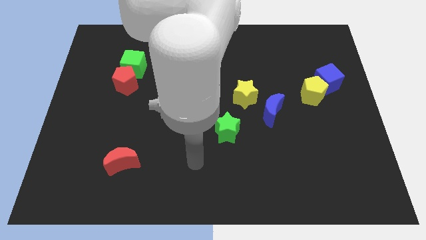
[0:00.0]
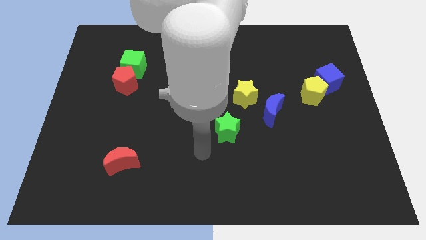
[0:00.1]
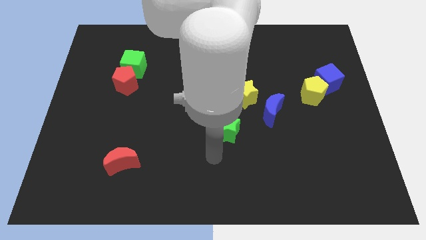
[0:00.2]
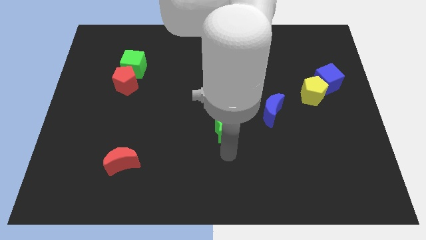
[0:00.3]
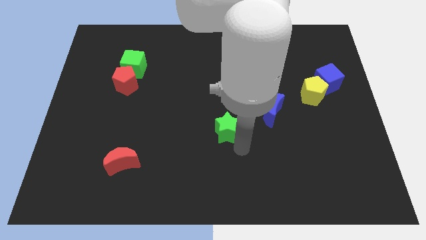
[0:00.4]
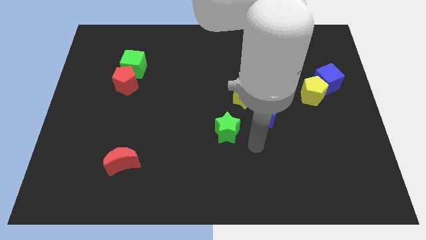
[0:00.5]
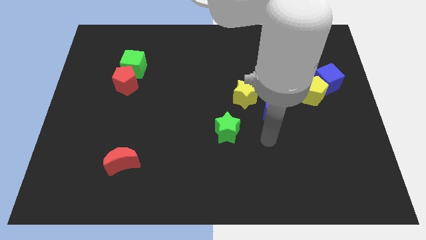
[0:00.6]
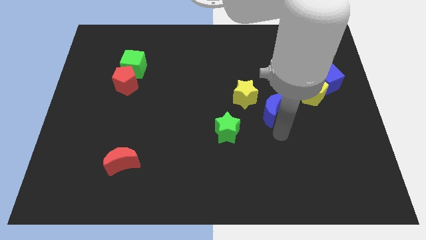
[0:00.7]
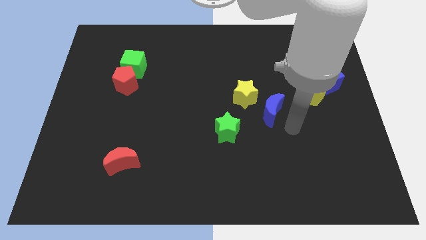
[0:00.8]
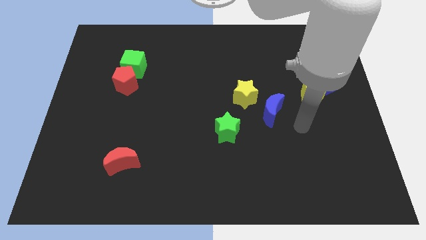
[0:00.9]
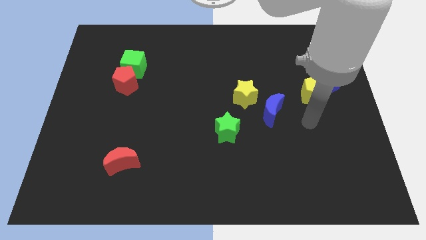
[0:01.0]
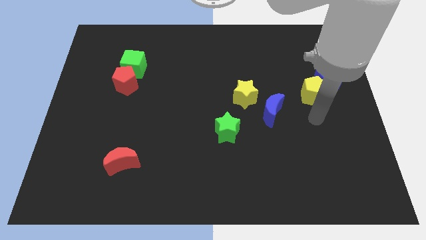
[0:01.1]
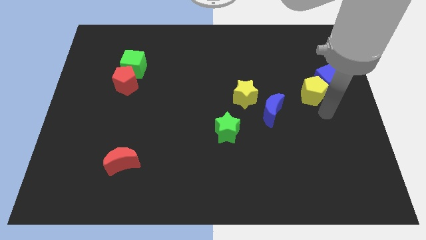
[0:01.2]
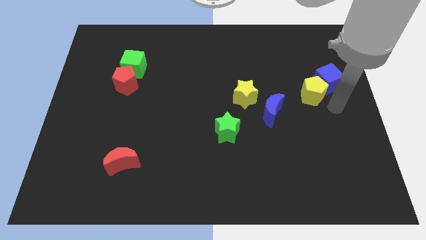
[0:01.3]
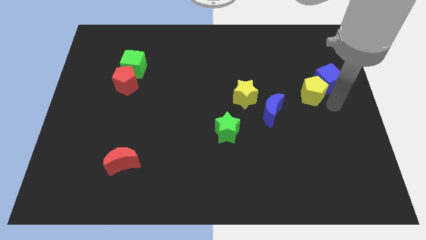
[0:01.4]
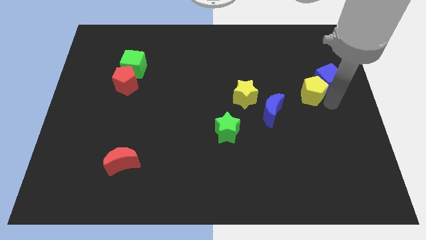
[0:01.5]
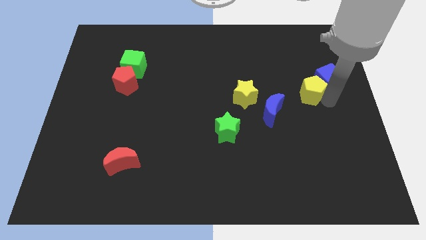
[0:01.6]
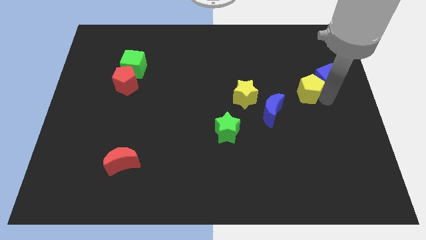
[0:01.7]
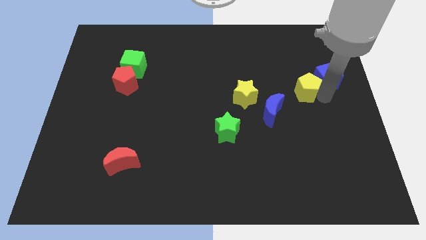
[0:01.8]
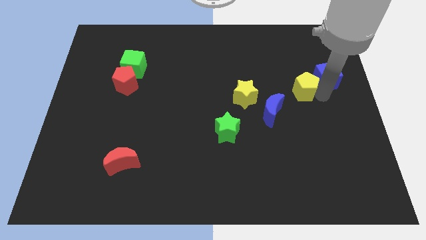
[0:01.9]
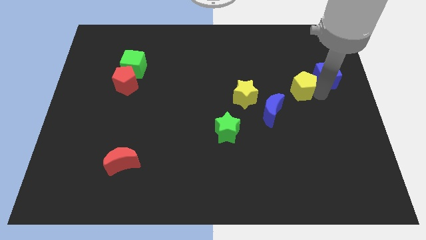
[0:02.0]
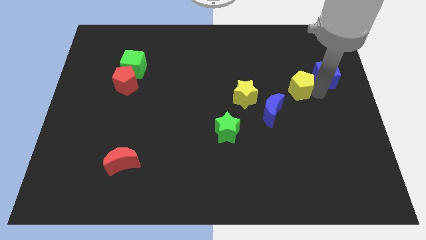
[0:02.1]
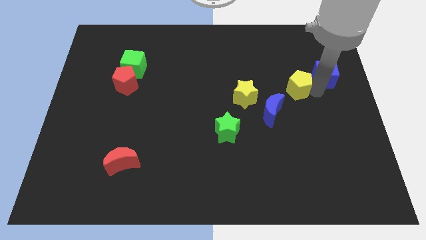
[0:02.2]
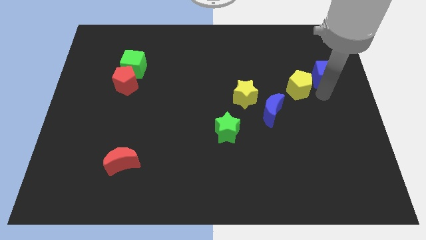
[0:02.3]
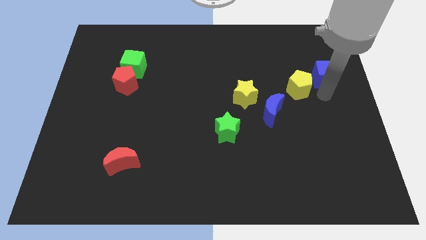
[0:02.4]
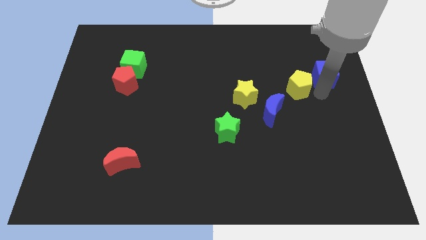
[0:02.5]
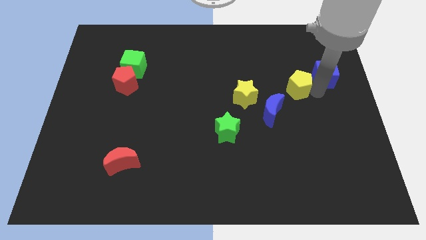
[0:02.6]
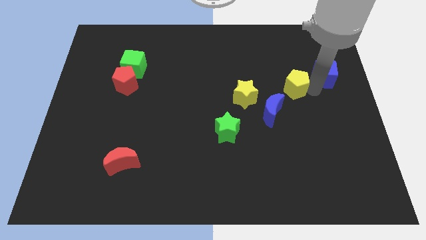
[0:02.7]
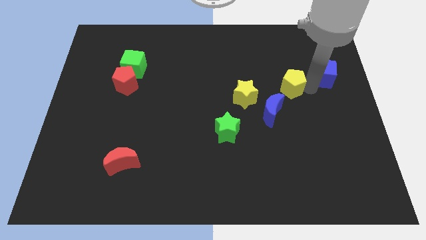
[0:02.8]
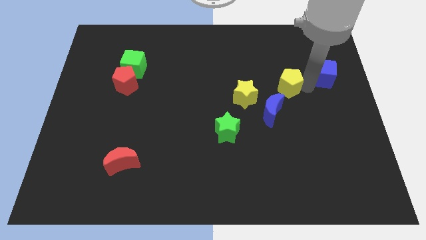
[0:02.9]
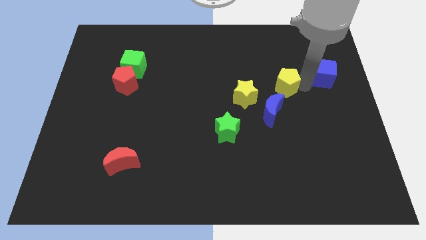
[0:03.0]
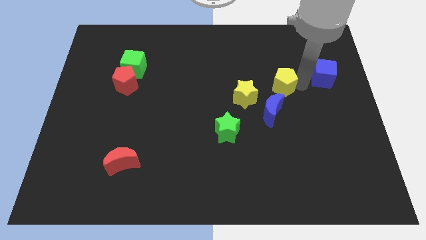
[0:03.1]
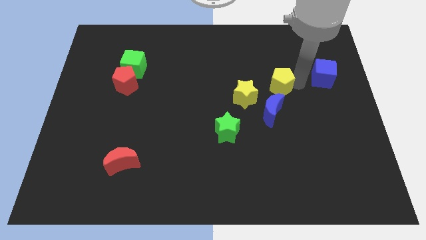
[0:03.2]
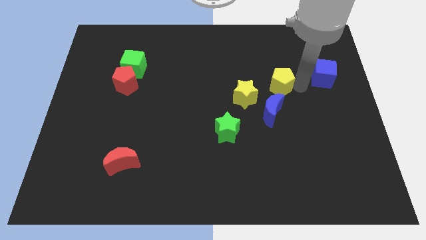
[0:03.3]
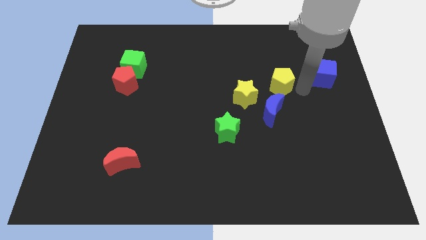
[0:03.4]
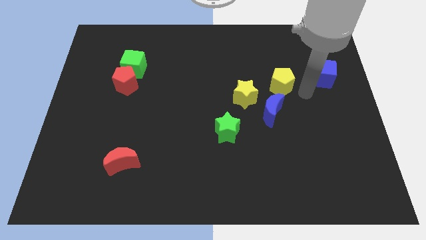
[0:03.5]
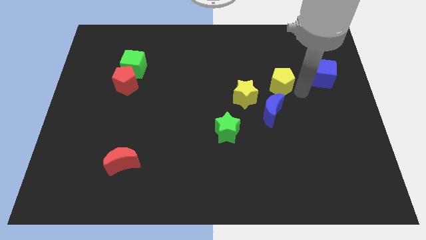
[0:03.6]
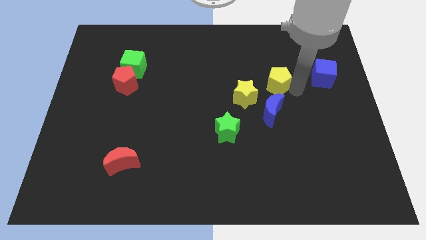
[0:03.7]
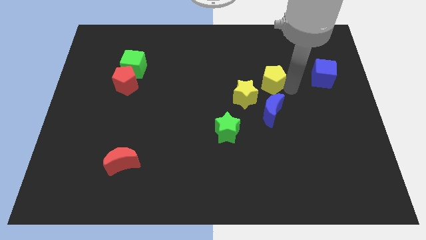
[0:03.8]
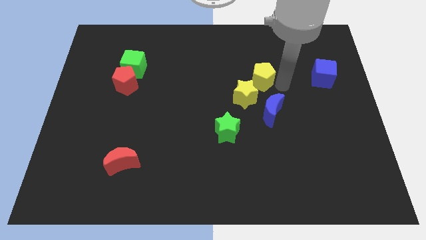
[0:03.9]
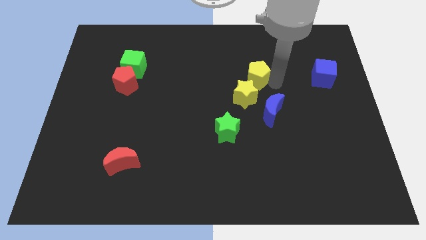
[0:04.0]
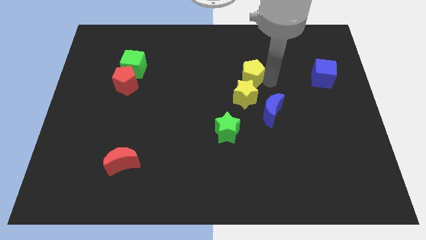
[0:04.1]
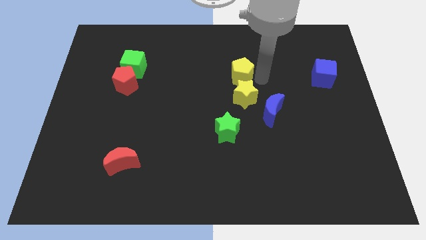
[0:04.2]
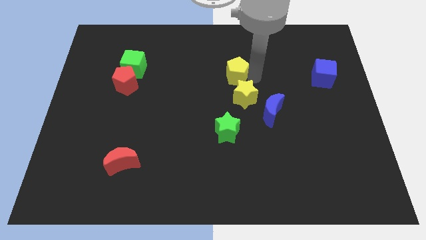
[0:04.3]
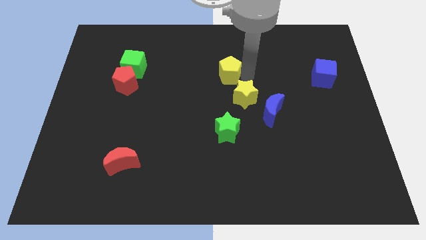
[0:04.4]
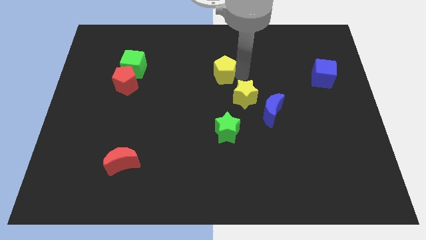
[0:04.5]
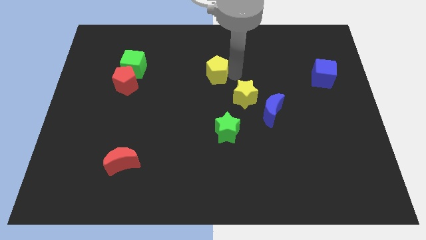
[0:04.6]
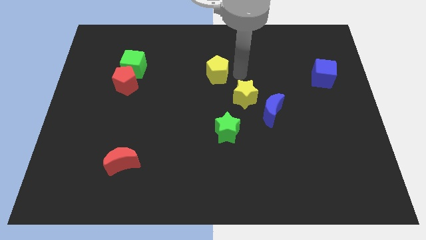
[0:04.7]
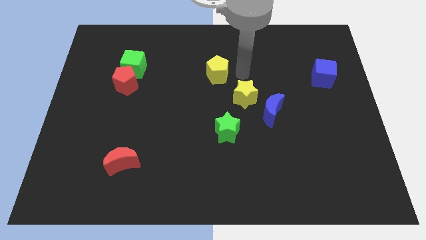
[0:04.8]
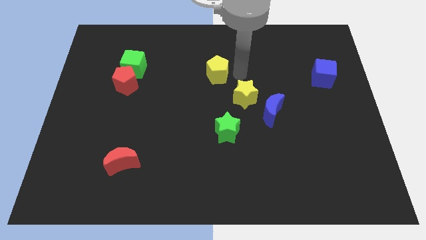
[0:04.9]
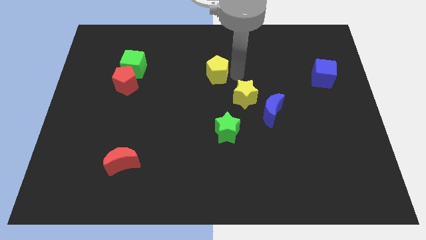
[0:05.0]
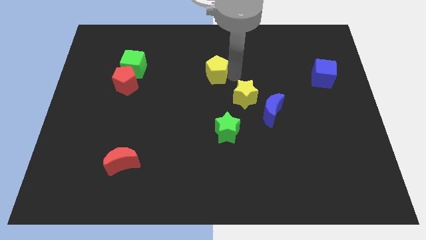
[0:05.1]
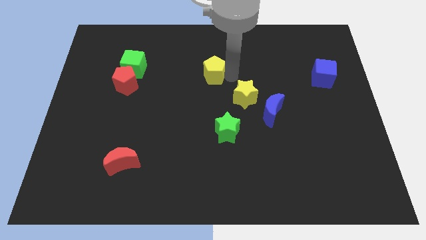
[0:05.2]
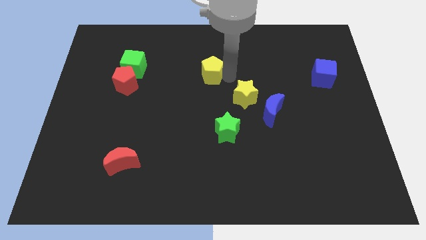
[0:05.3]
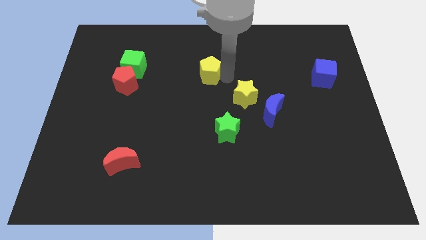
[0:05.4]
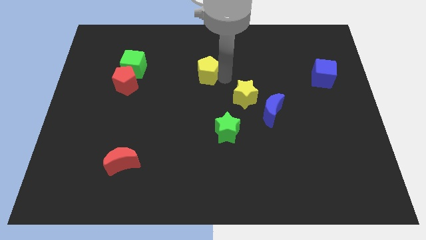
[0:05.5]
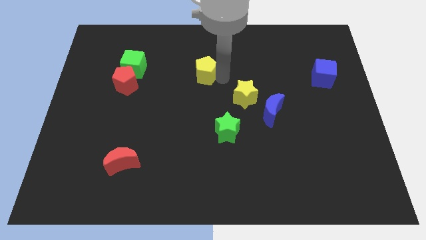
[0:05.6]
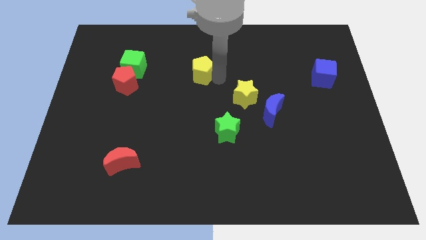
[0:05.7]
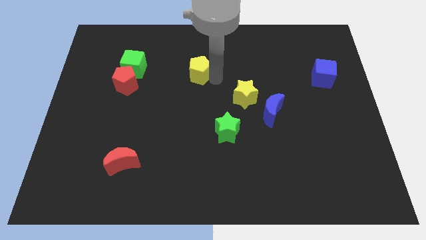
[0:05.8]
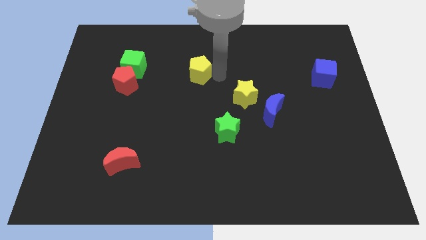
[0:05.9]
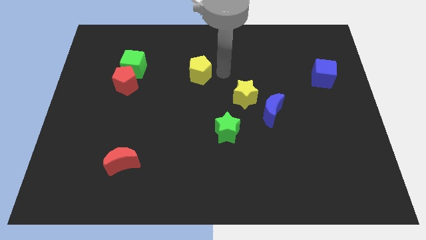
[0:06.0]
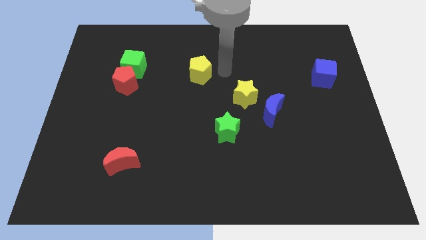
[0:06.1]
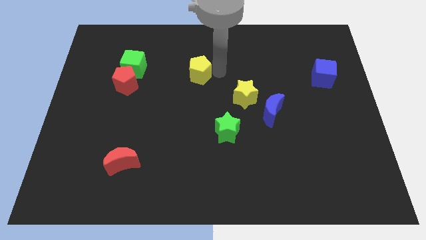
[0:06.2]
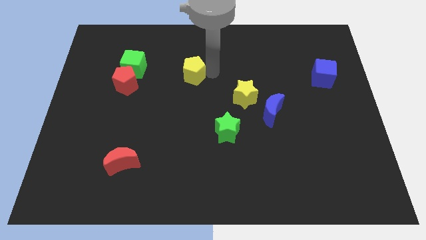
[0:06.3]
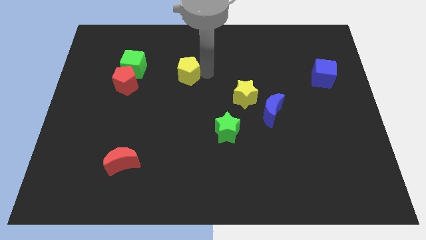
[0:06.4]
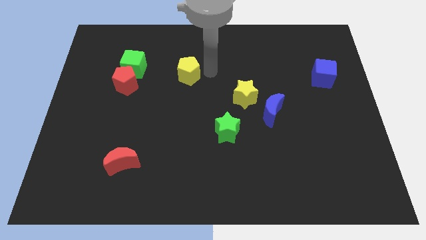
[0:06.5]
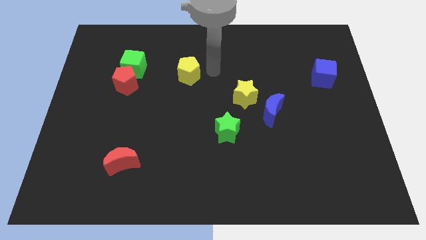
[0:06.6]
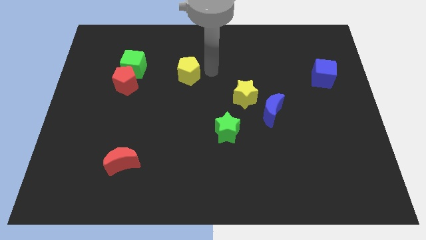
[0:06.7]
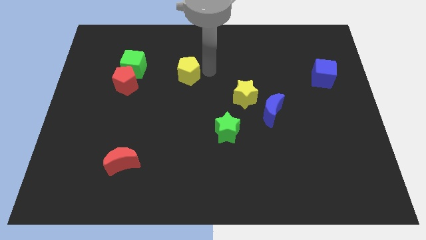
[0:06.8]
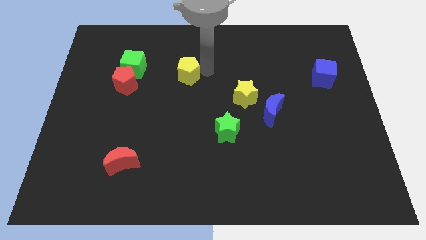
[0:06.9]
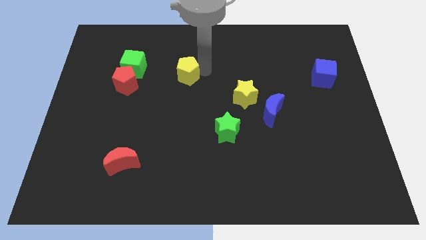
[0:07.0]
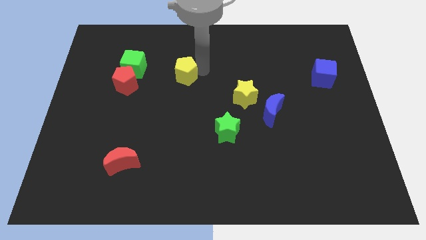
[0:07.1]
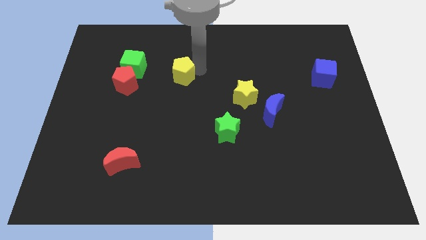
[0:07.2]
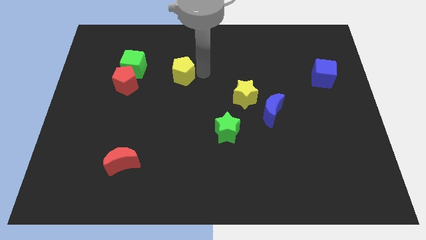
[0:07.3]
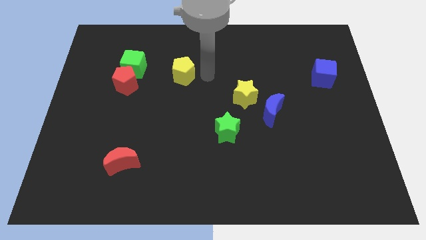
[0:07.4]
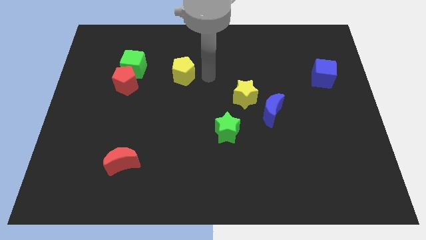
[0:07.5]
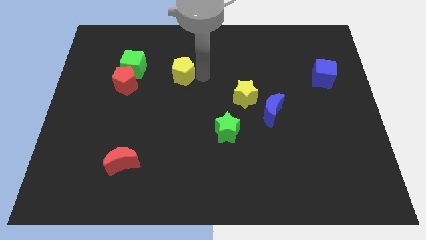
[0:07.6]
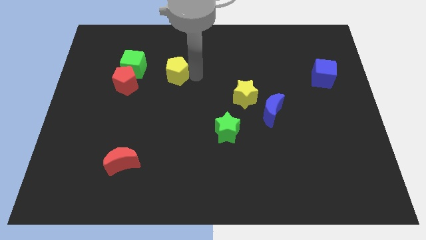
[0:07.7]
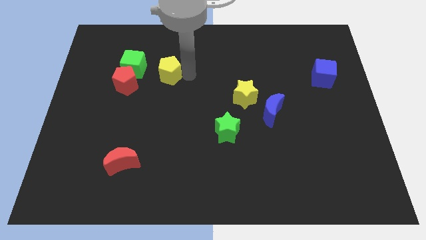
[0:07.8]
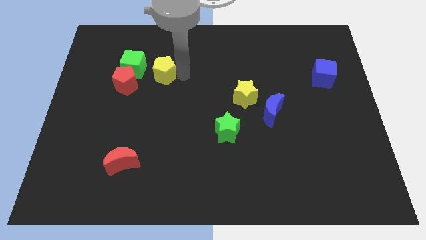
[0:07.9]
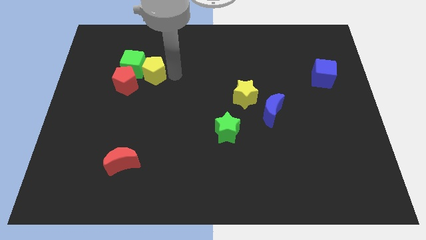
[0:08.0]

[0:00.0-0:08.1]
push the yellow pentagon next to the green cube
